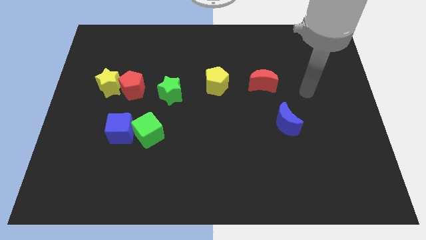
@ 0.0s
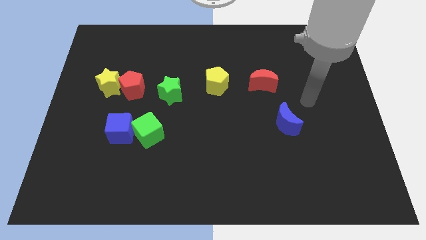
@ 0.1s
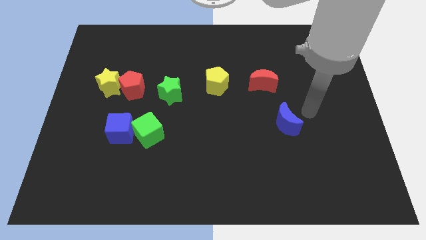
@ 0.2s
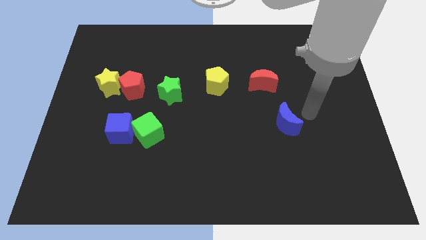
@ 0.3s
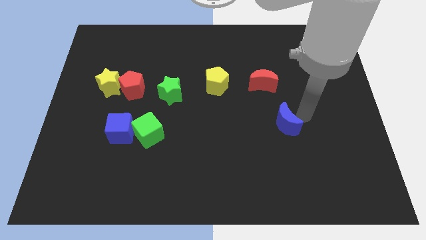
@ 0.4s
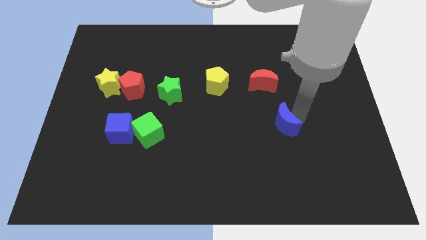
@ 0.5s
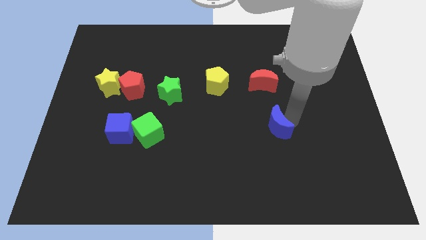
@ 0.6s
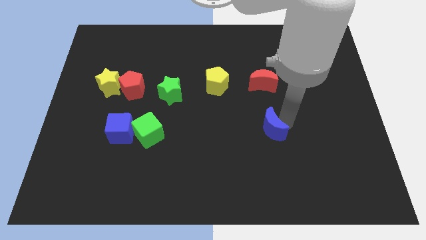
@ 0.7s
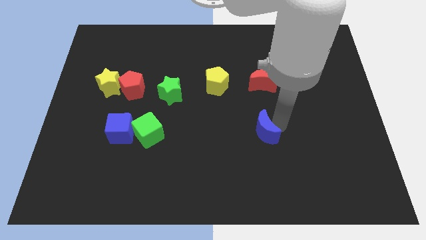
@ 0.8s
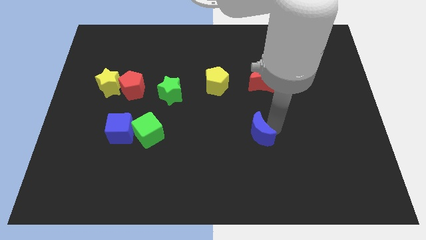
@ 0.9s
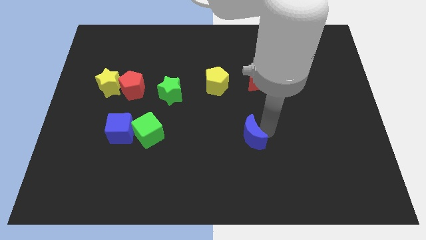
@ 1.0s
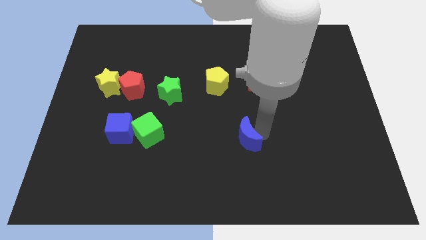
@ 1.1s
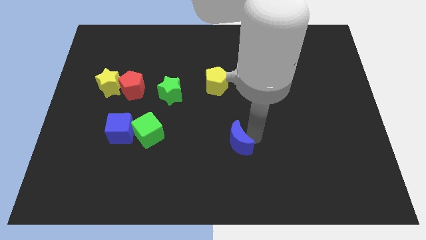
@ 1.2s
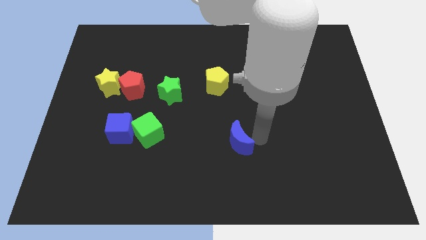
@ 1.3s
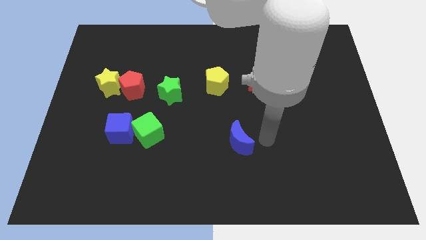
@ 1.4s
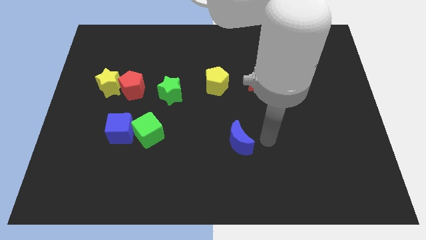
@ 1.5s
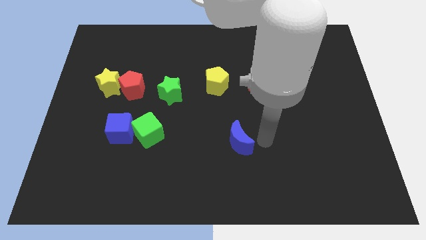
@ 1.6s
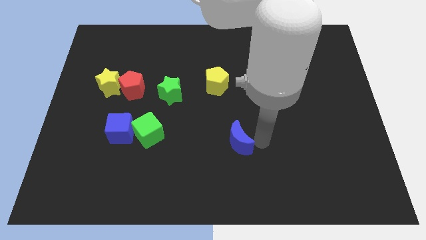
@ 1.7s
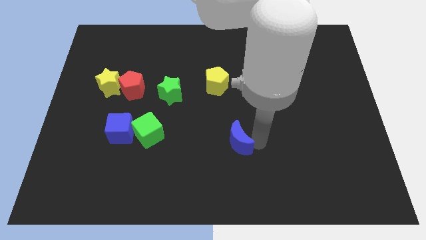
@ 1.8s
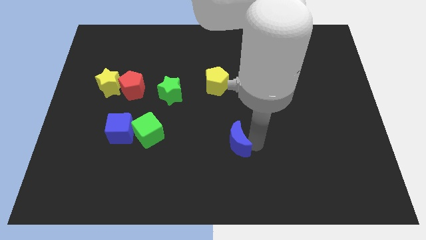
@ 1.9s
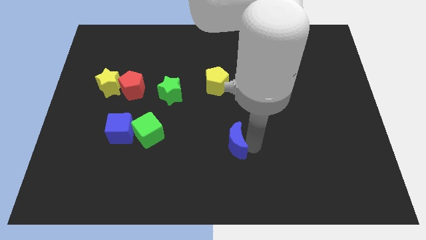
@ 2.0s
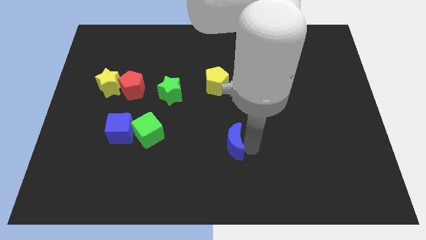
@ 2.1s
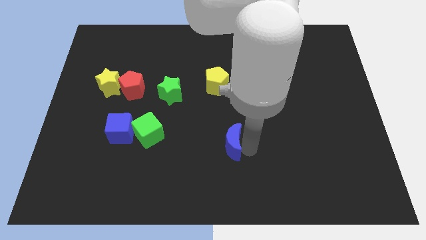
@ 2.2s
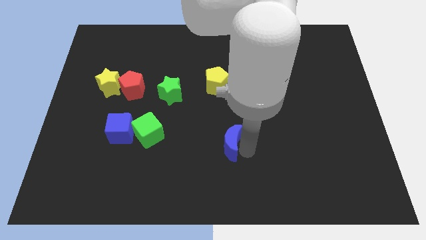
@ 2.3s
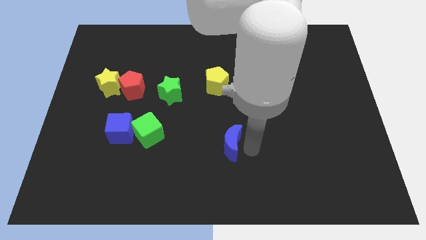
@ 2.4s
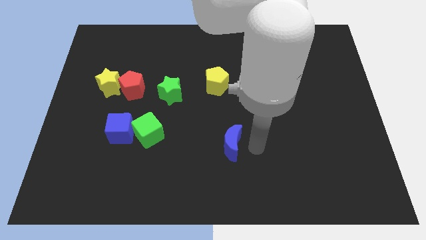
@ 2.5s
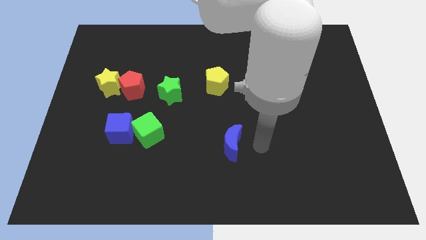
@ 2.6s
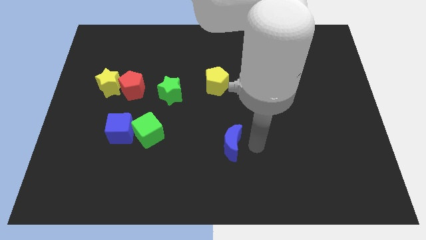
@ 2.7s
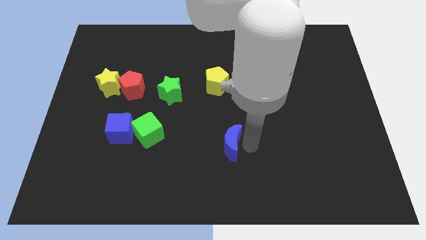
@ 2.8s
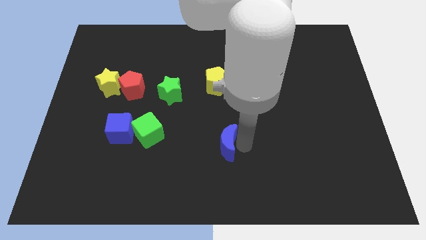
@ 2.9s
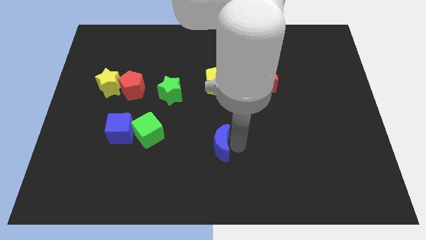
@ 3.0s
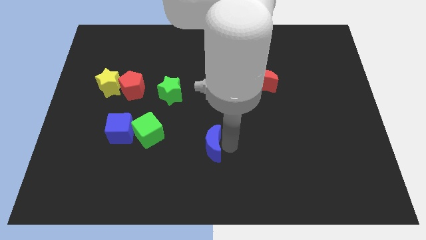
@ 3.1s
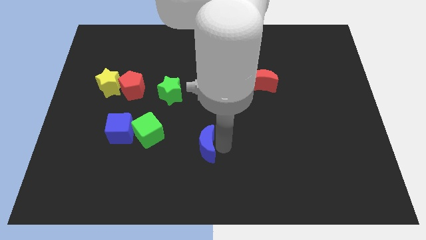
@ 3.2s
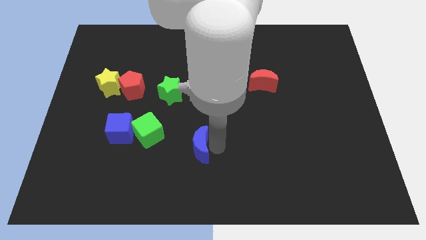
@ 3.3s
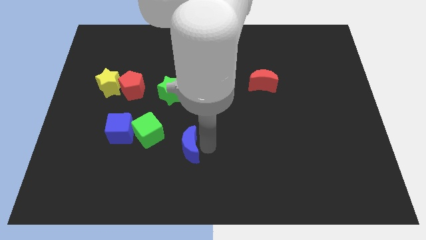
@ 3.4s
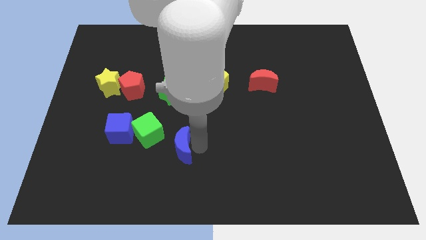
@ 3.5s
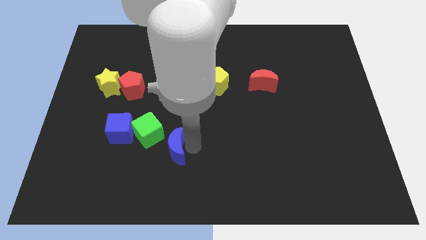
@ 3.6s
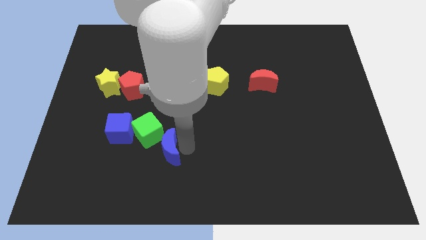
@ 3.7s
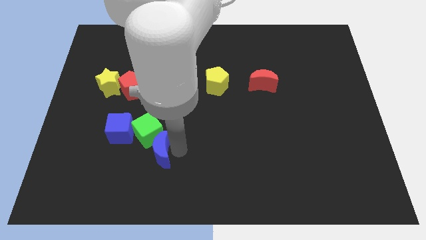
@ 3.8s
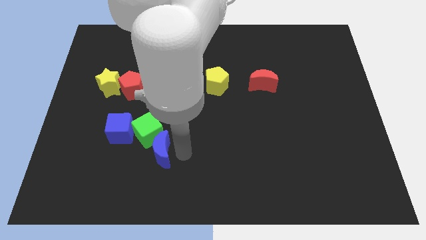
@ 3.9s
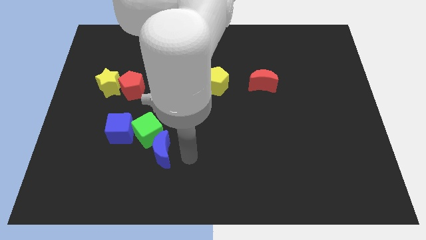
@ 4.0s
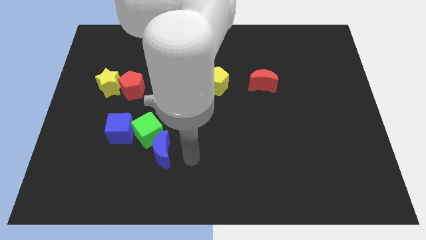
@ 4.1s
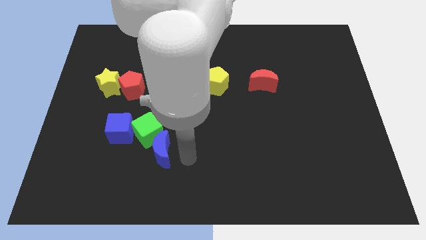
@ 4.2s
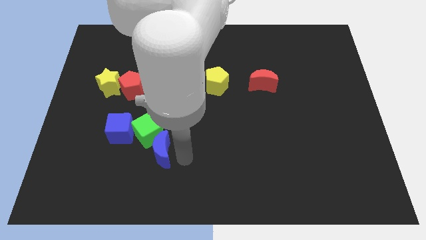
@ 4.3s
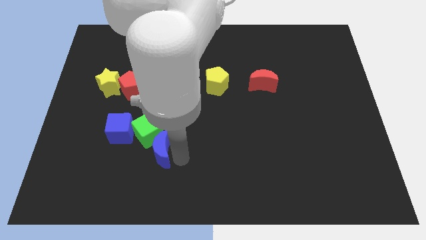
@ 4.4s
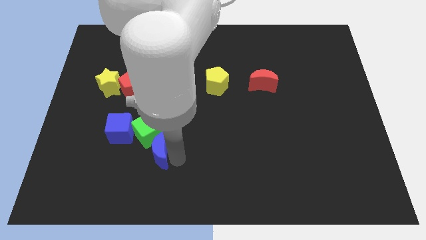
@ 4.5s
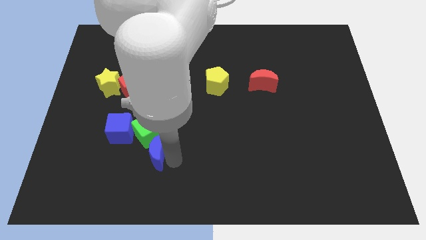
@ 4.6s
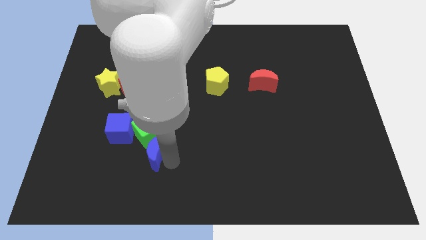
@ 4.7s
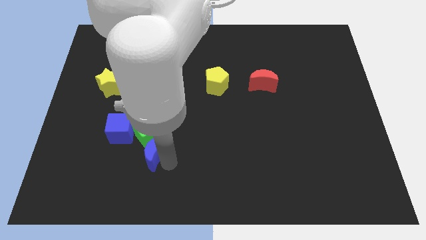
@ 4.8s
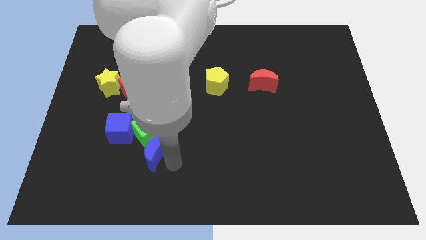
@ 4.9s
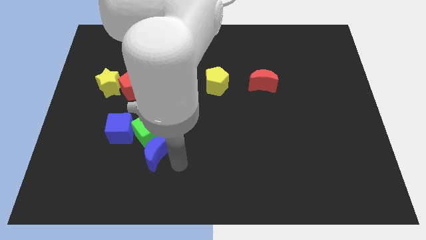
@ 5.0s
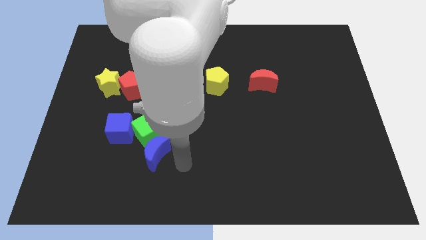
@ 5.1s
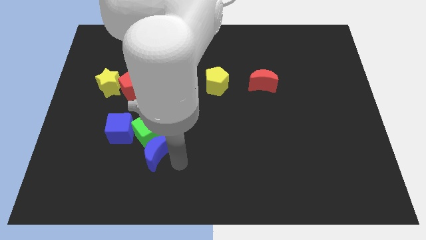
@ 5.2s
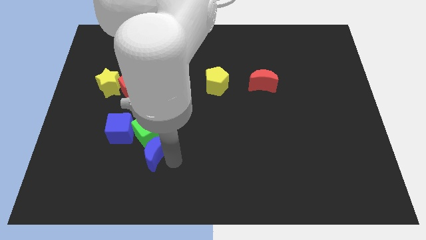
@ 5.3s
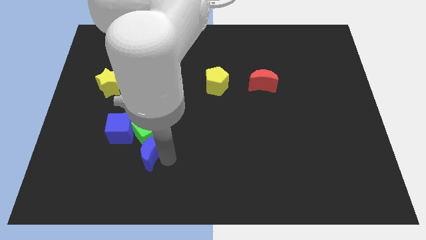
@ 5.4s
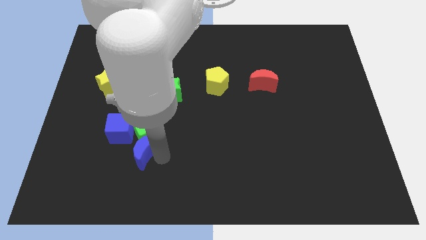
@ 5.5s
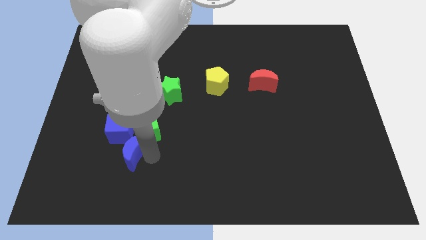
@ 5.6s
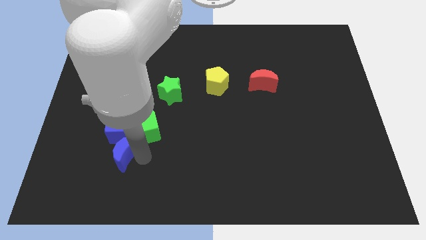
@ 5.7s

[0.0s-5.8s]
slide the blue moon close to the blue cube

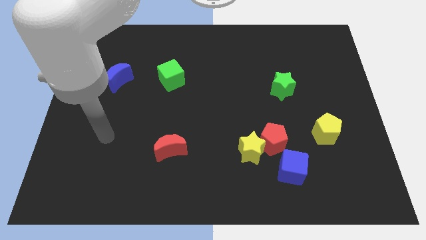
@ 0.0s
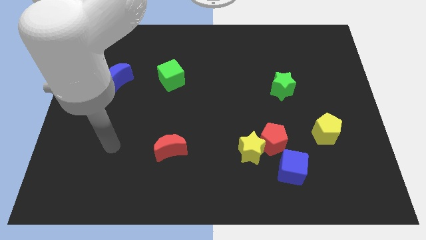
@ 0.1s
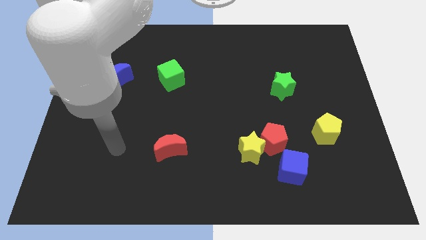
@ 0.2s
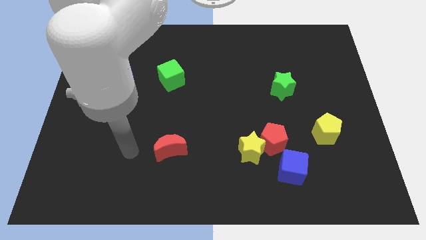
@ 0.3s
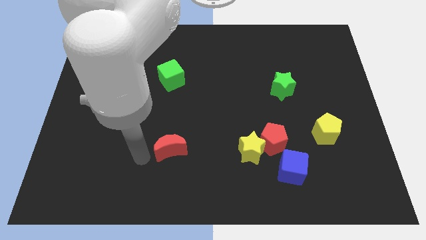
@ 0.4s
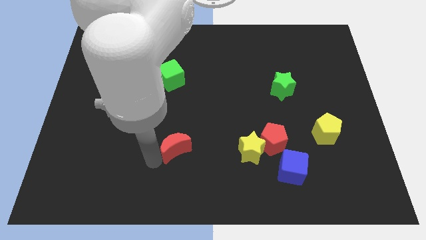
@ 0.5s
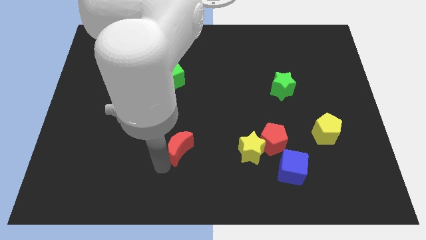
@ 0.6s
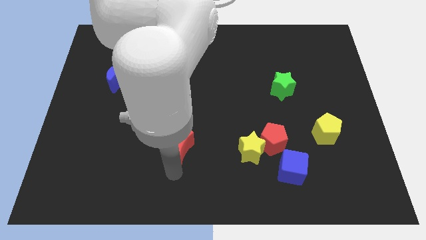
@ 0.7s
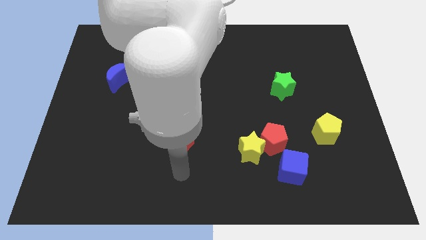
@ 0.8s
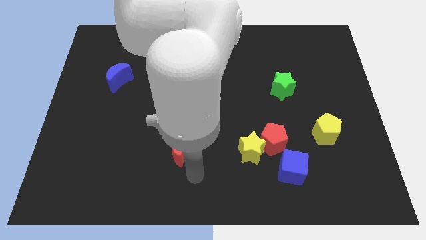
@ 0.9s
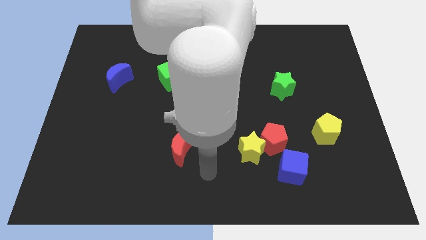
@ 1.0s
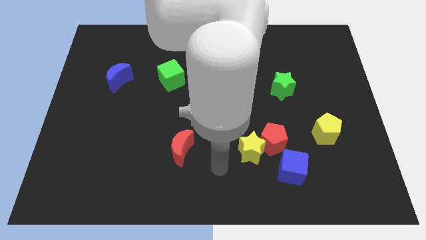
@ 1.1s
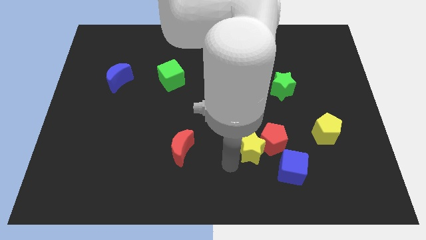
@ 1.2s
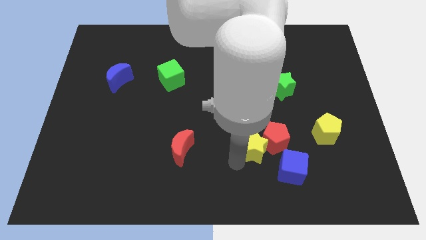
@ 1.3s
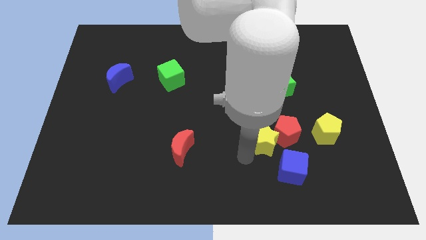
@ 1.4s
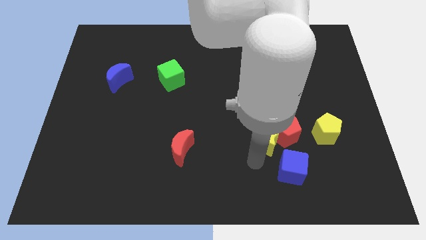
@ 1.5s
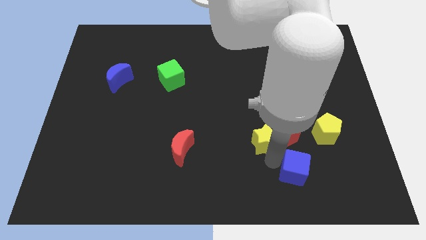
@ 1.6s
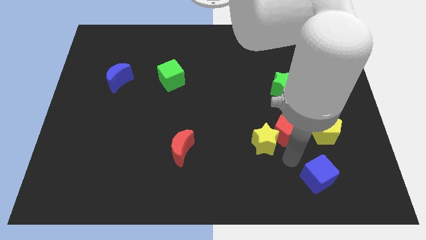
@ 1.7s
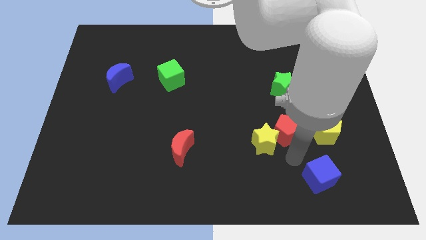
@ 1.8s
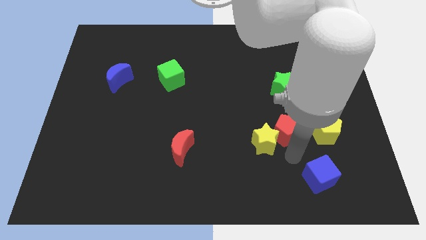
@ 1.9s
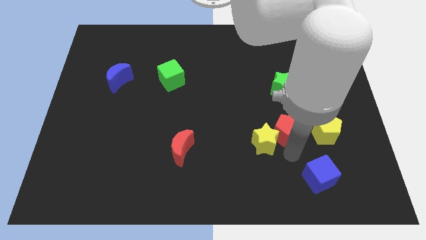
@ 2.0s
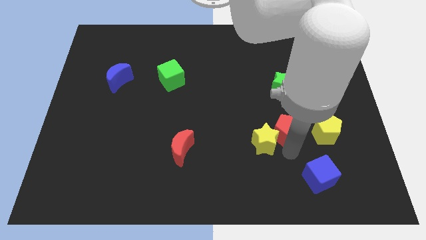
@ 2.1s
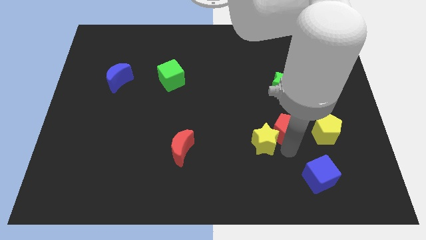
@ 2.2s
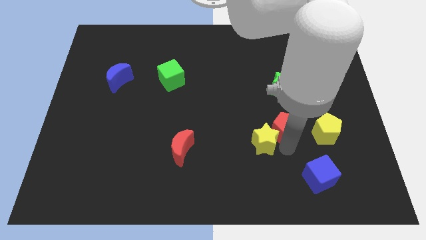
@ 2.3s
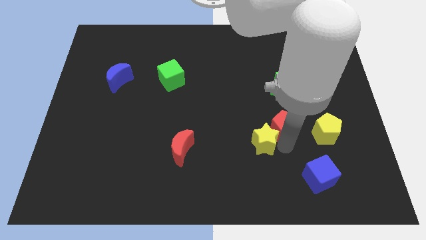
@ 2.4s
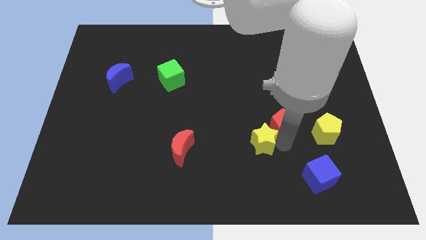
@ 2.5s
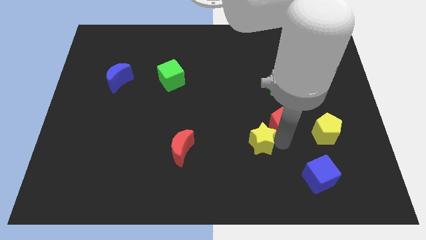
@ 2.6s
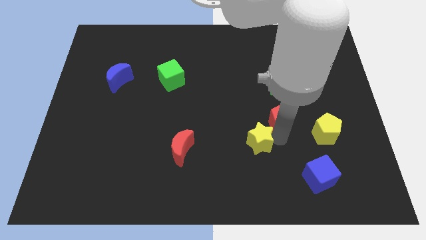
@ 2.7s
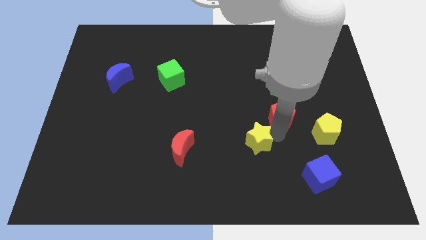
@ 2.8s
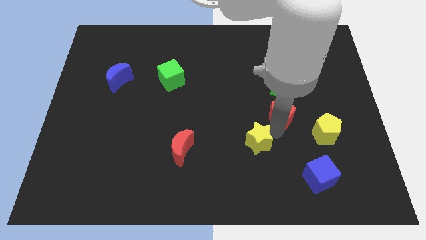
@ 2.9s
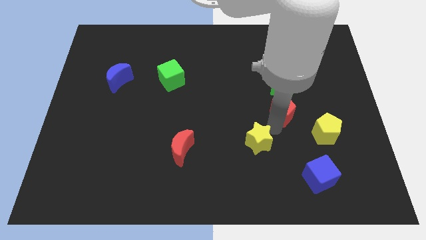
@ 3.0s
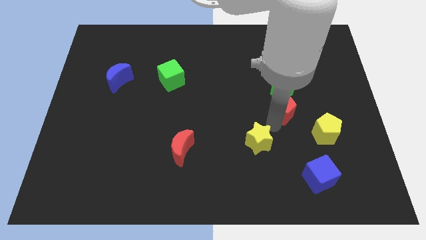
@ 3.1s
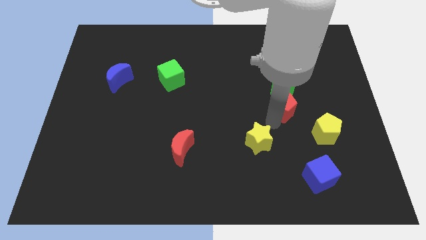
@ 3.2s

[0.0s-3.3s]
move the red pentagon towards the green star
